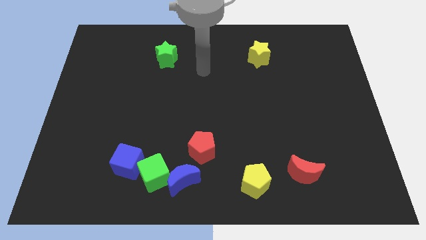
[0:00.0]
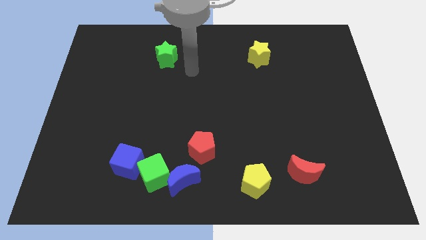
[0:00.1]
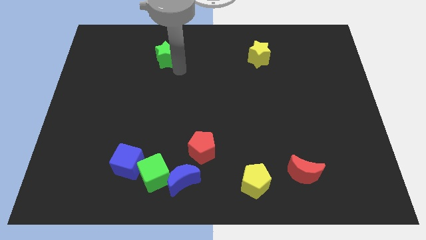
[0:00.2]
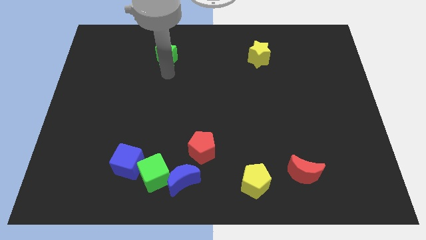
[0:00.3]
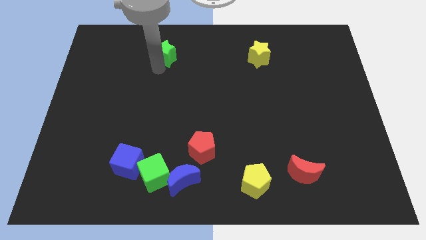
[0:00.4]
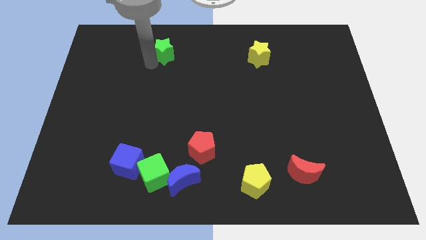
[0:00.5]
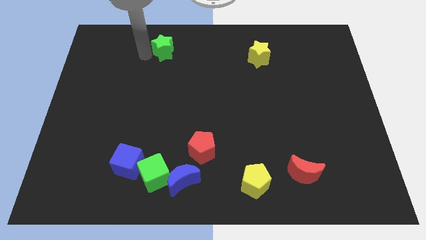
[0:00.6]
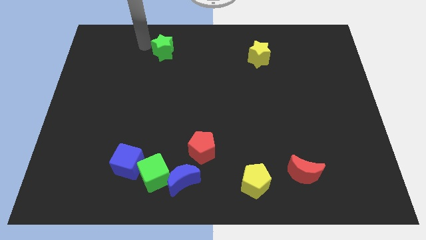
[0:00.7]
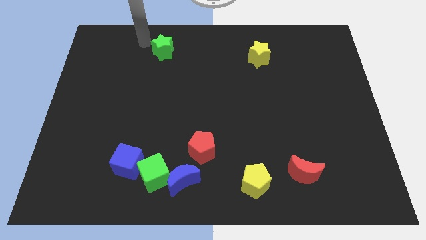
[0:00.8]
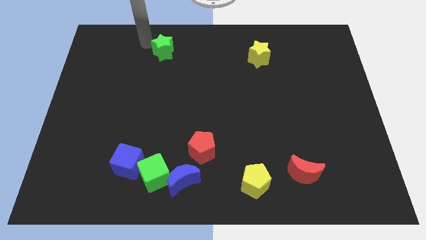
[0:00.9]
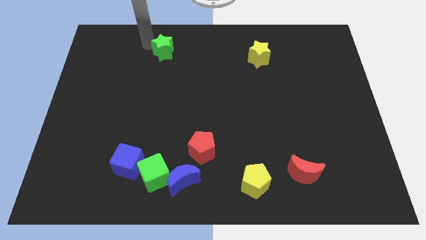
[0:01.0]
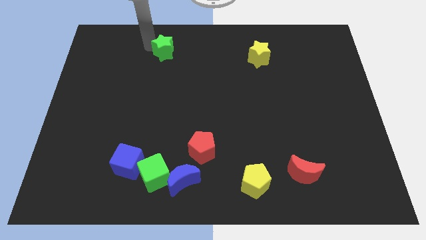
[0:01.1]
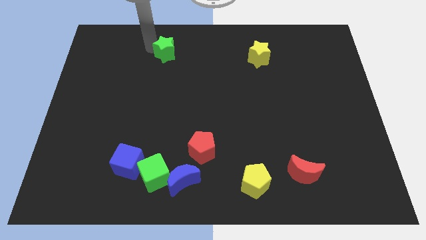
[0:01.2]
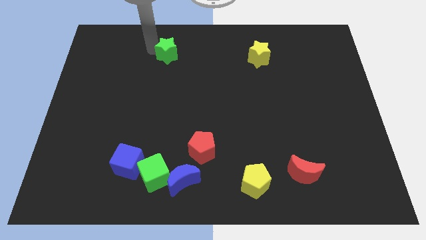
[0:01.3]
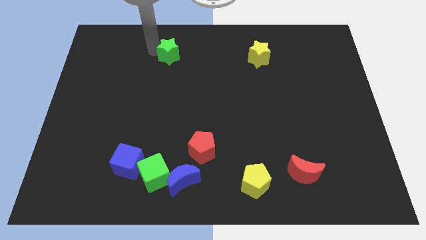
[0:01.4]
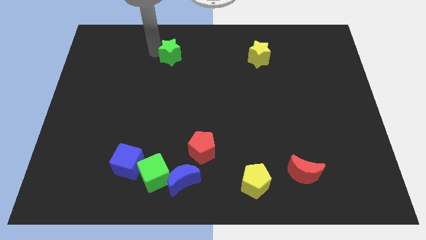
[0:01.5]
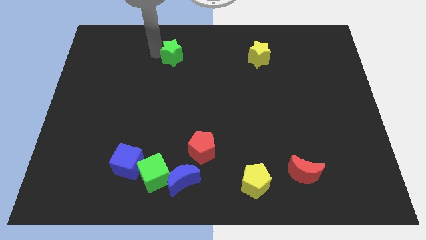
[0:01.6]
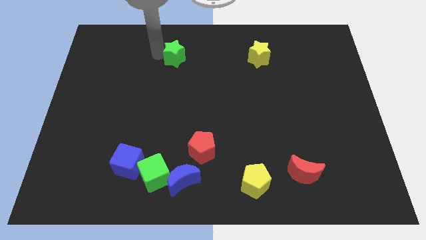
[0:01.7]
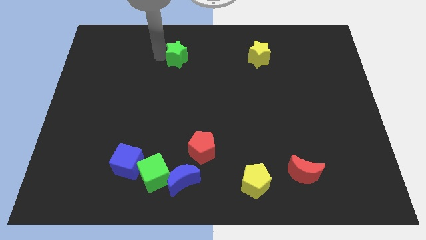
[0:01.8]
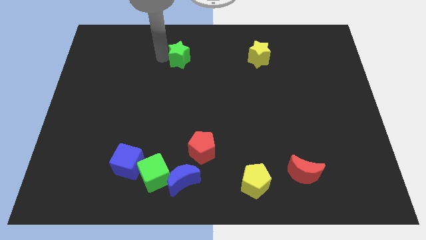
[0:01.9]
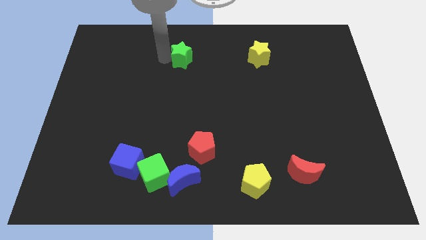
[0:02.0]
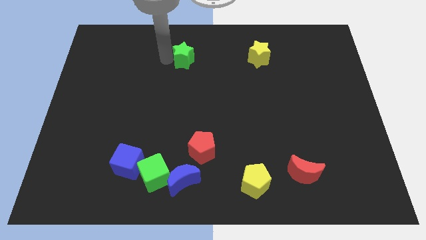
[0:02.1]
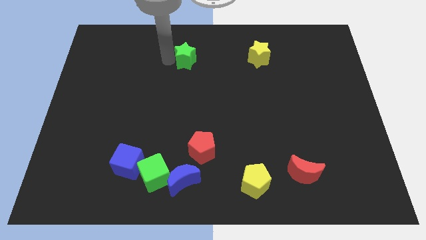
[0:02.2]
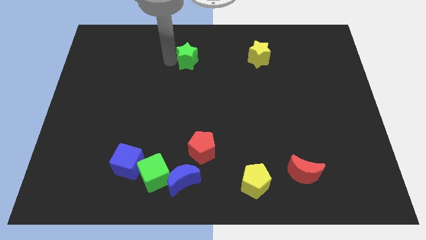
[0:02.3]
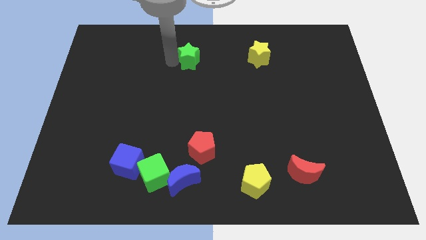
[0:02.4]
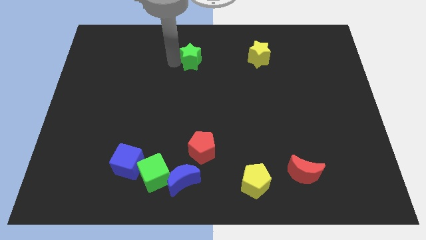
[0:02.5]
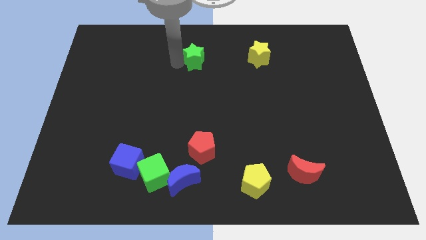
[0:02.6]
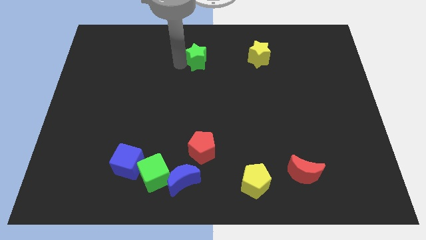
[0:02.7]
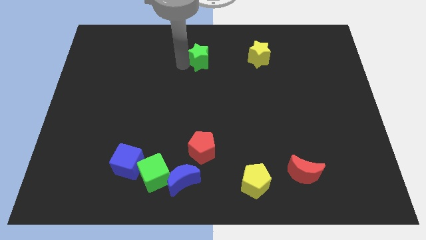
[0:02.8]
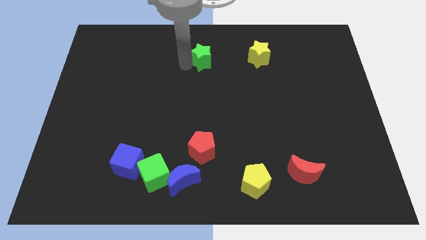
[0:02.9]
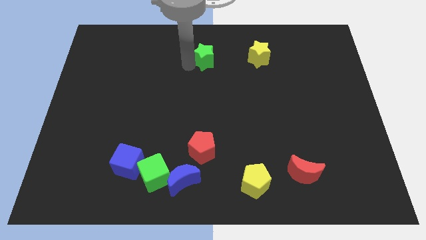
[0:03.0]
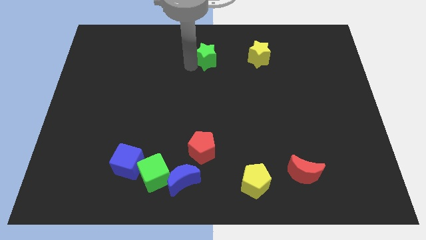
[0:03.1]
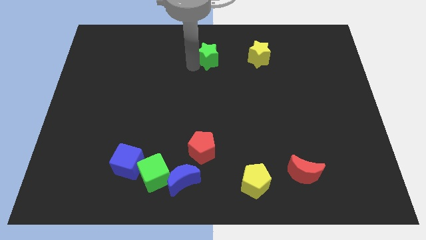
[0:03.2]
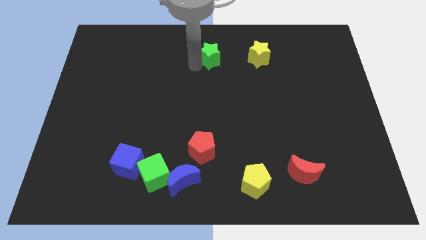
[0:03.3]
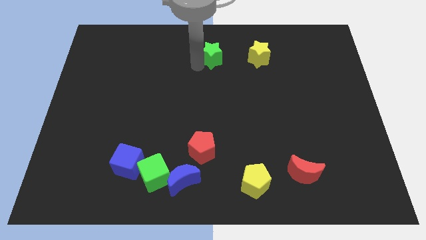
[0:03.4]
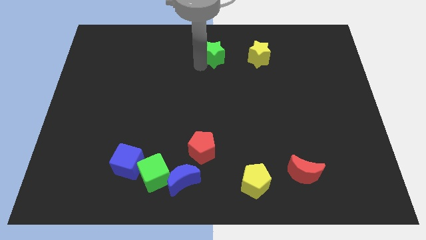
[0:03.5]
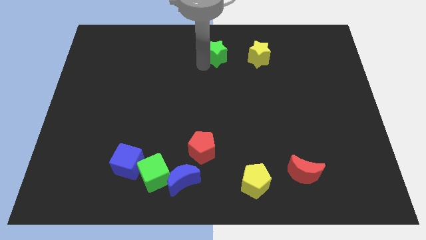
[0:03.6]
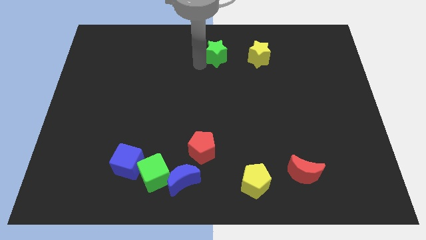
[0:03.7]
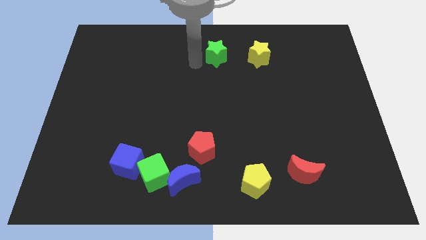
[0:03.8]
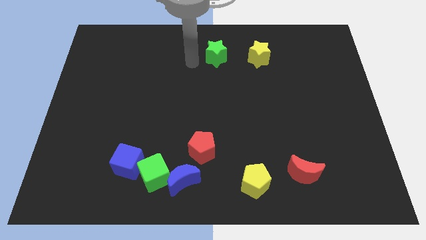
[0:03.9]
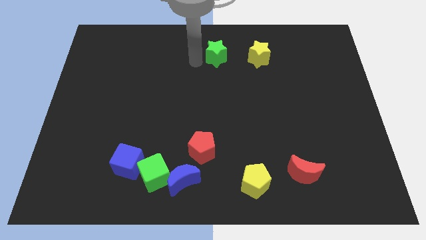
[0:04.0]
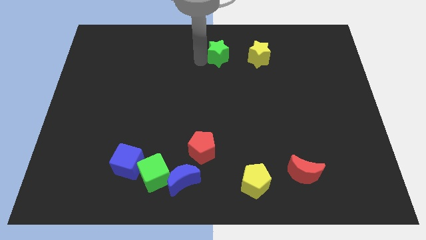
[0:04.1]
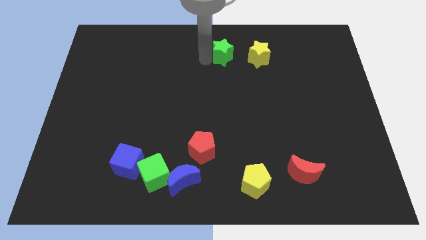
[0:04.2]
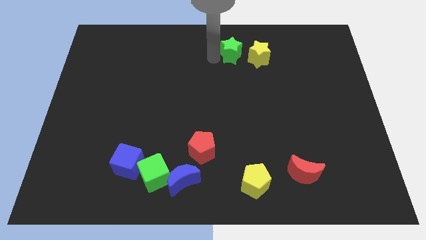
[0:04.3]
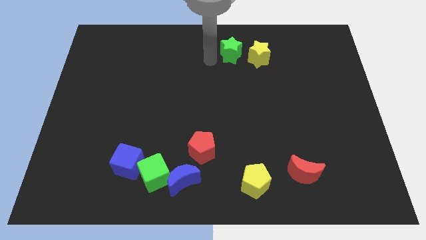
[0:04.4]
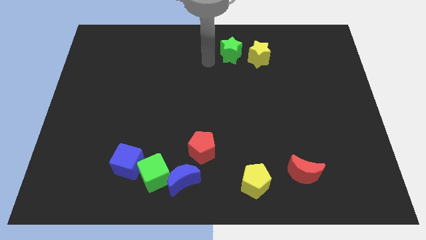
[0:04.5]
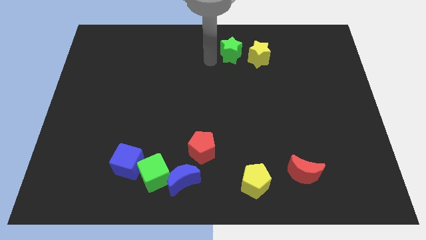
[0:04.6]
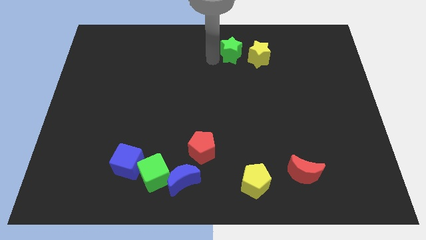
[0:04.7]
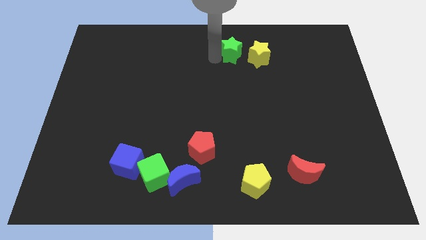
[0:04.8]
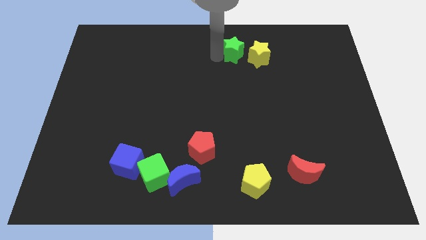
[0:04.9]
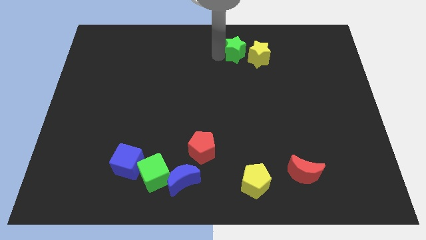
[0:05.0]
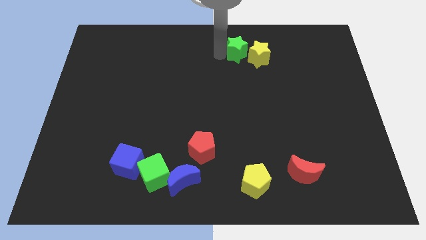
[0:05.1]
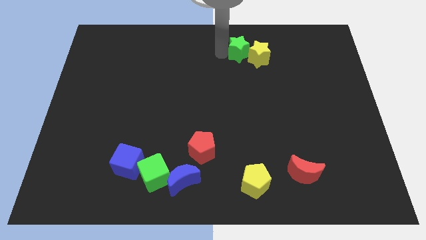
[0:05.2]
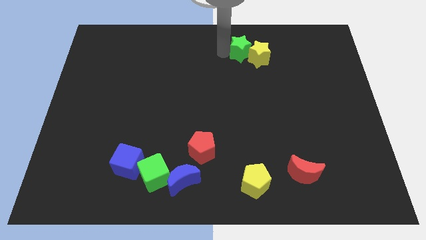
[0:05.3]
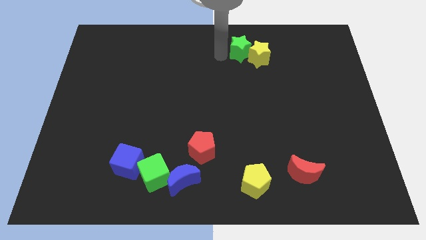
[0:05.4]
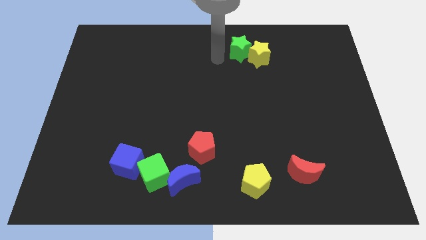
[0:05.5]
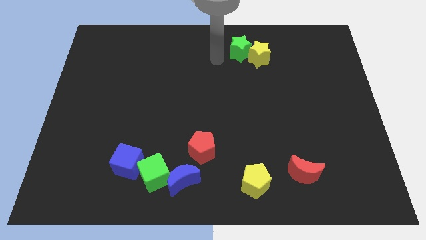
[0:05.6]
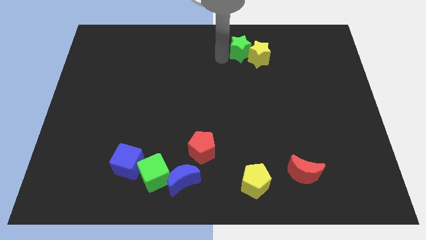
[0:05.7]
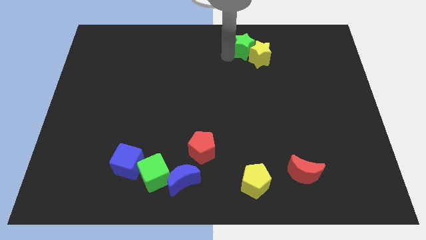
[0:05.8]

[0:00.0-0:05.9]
move the green star to the right

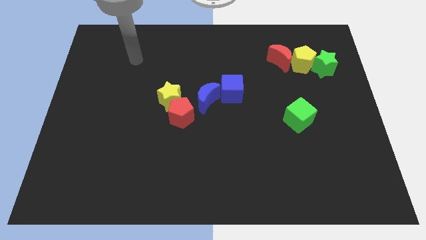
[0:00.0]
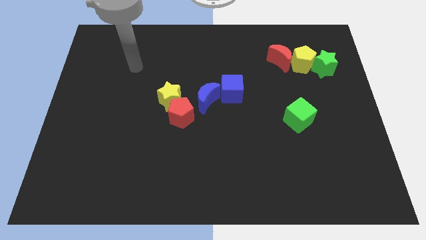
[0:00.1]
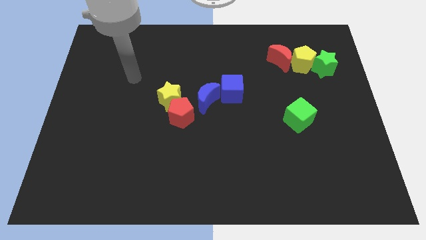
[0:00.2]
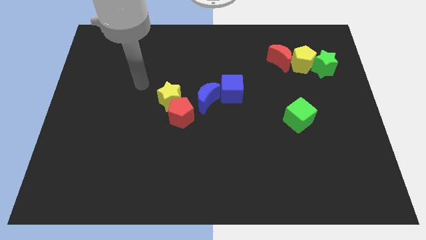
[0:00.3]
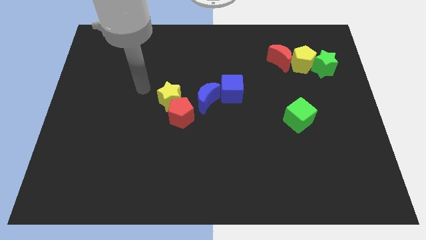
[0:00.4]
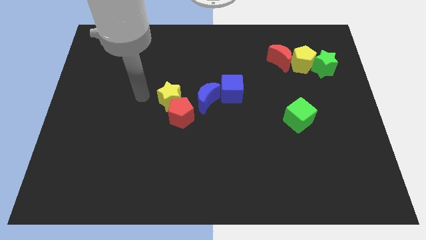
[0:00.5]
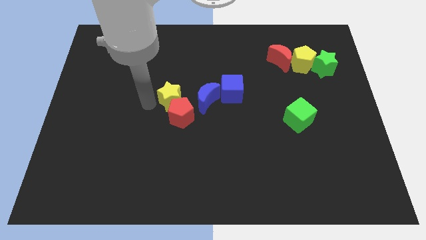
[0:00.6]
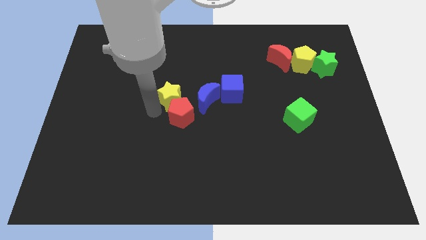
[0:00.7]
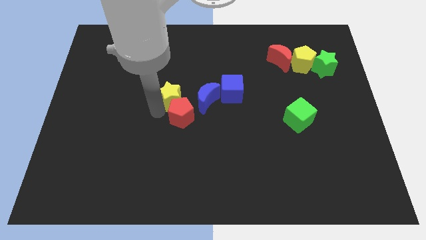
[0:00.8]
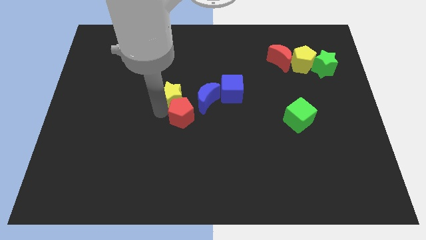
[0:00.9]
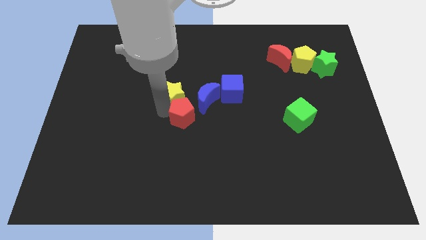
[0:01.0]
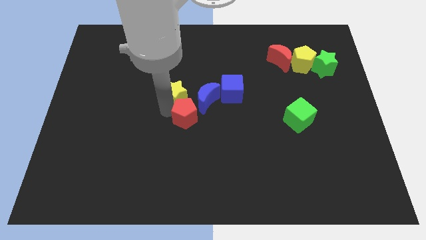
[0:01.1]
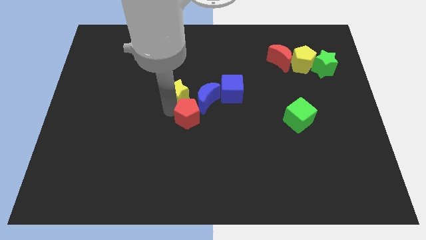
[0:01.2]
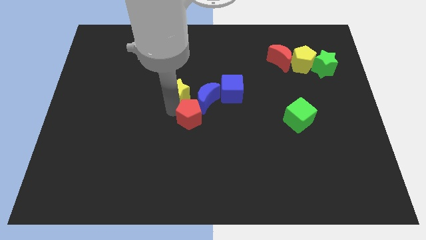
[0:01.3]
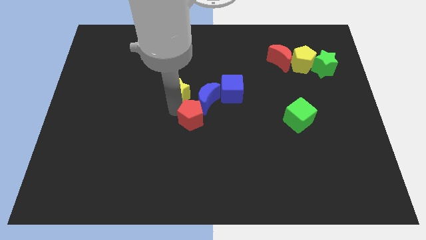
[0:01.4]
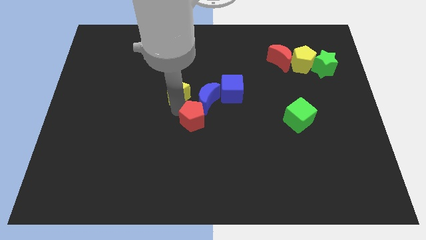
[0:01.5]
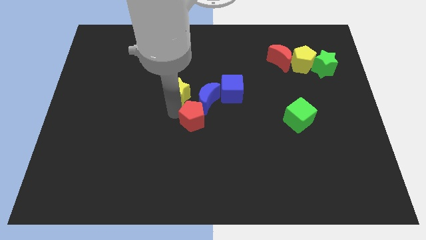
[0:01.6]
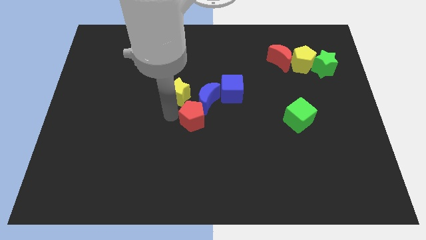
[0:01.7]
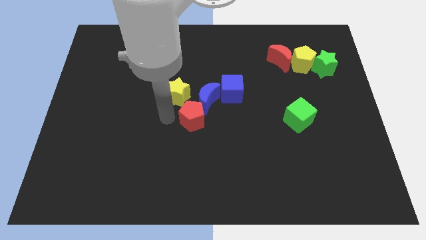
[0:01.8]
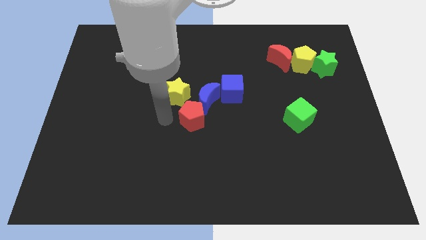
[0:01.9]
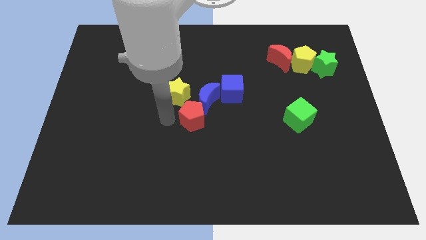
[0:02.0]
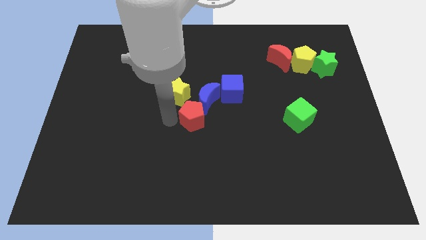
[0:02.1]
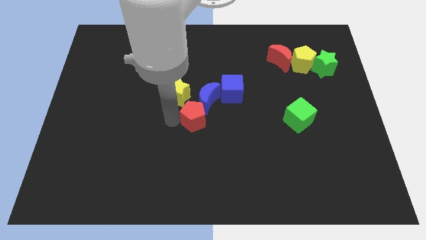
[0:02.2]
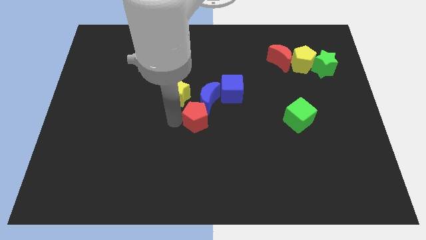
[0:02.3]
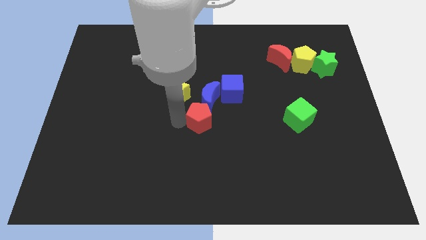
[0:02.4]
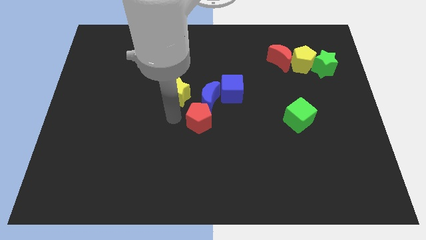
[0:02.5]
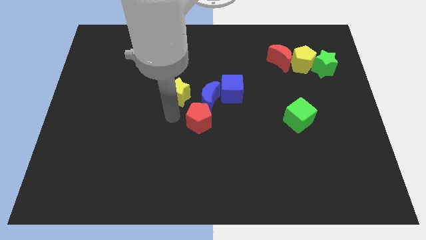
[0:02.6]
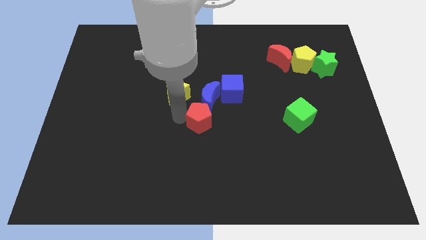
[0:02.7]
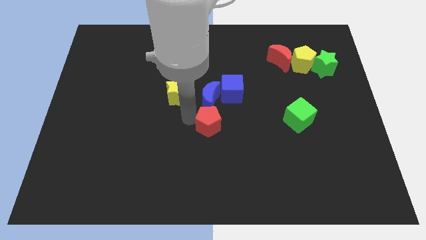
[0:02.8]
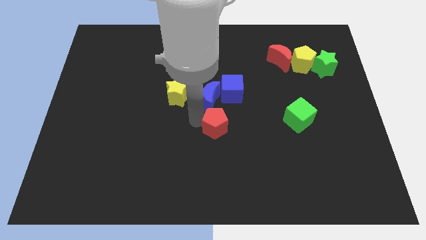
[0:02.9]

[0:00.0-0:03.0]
slightly move the red pentagon right
